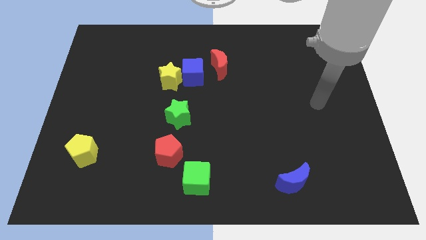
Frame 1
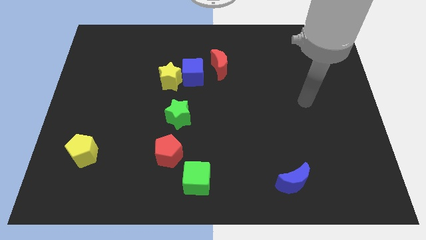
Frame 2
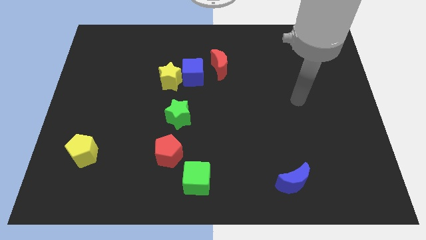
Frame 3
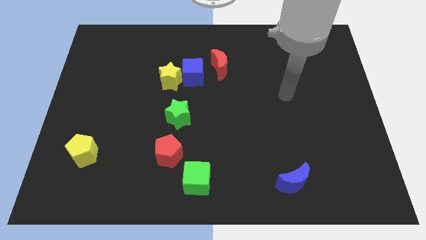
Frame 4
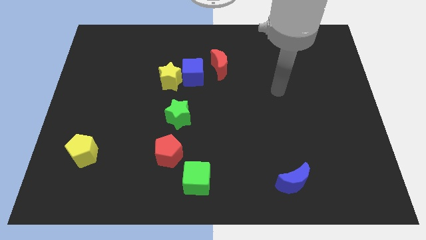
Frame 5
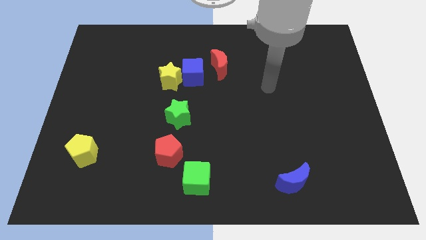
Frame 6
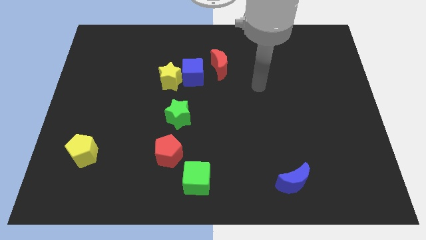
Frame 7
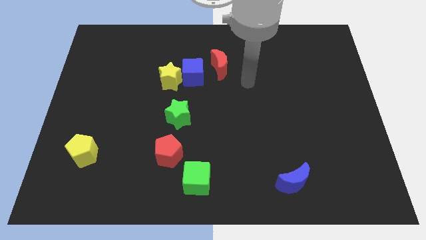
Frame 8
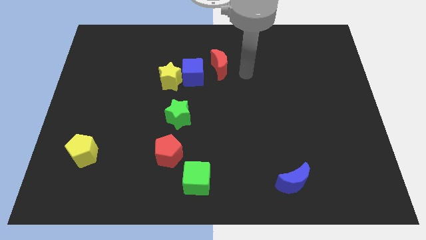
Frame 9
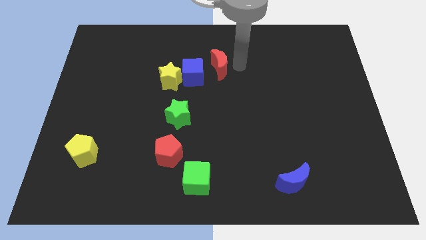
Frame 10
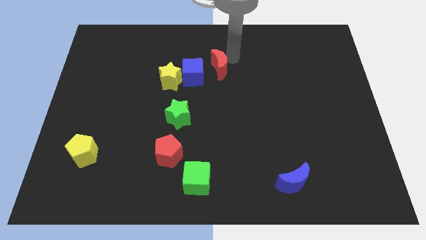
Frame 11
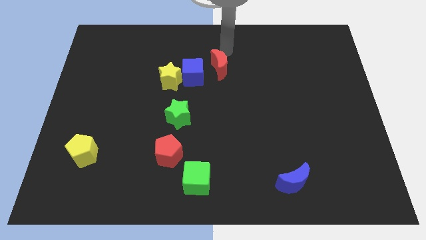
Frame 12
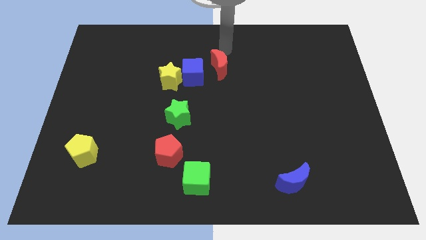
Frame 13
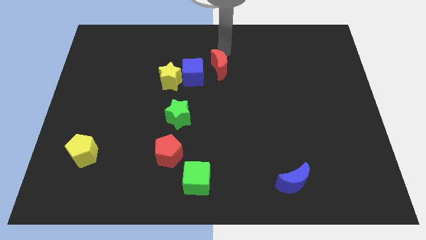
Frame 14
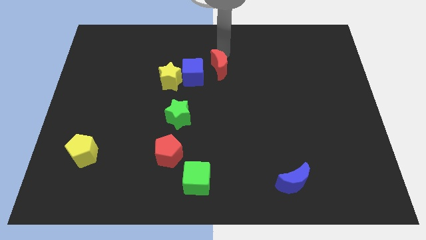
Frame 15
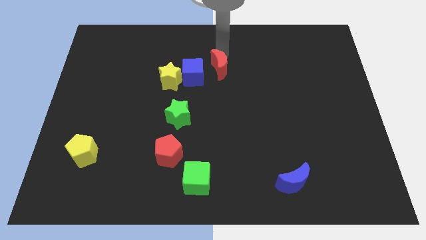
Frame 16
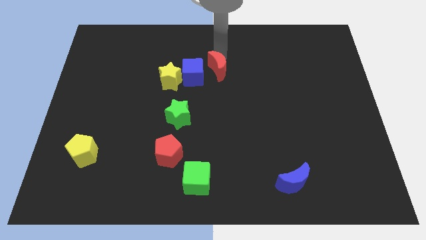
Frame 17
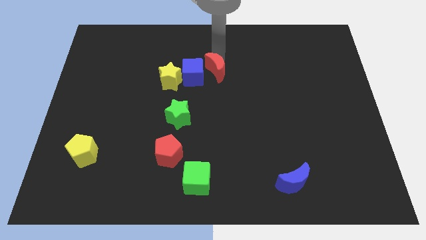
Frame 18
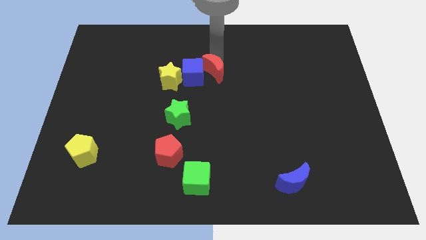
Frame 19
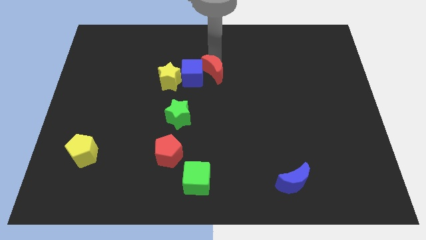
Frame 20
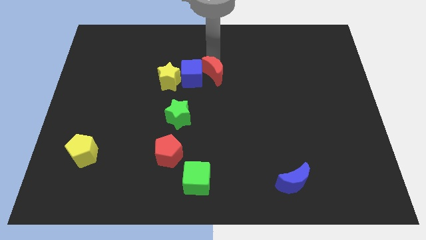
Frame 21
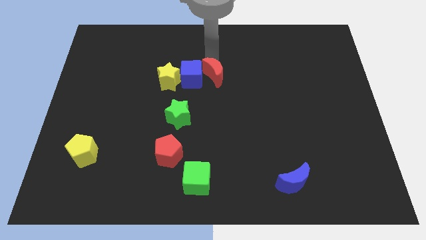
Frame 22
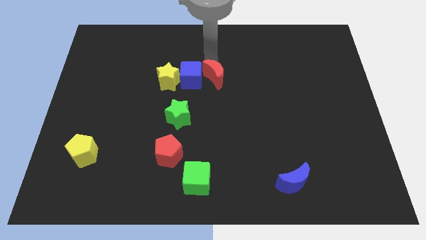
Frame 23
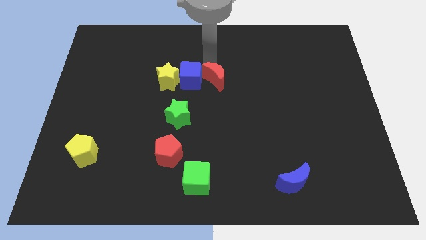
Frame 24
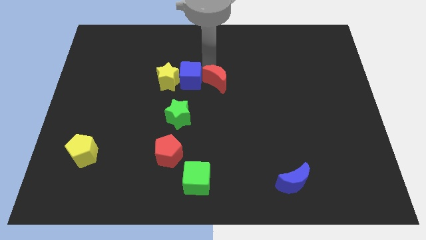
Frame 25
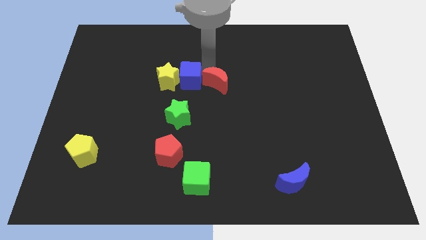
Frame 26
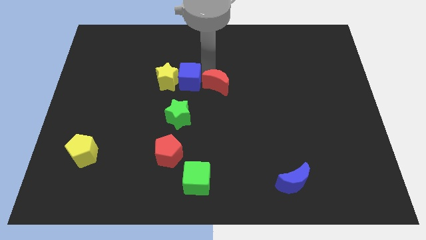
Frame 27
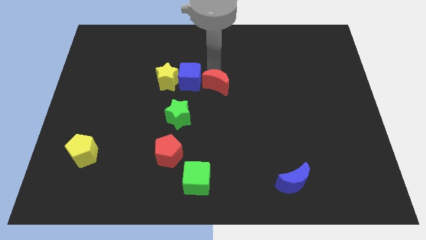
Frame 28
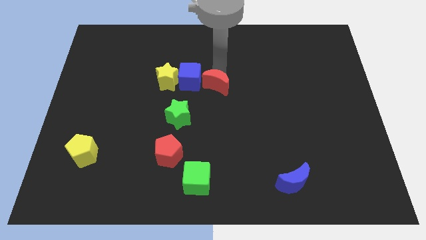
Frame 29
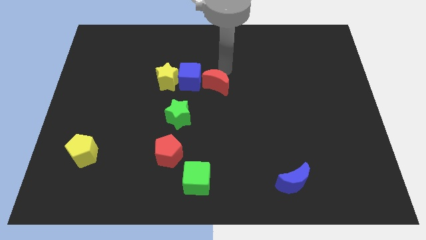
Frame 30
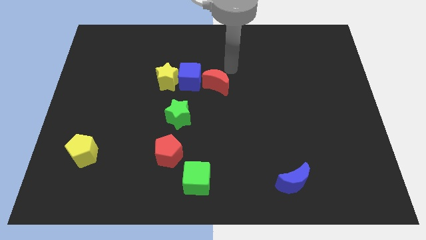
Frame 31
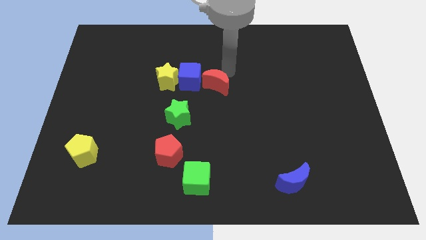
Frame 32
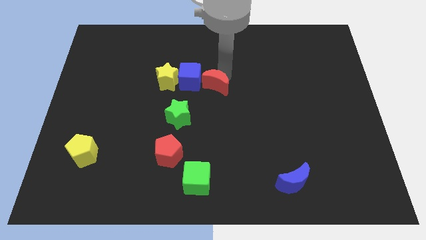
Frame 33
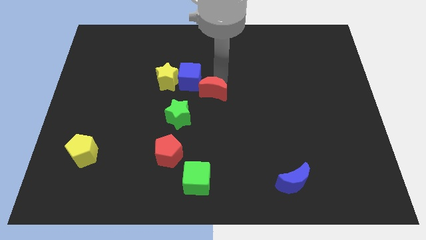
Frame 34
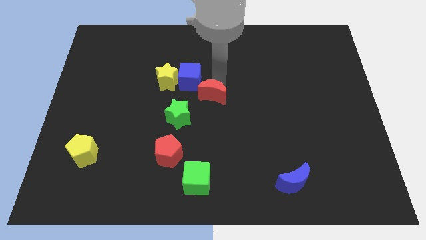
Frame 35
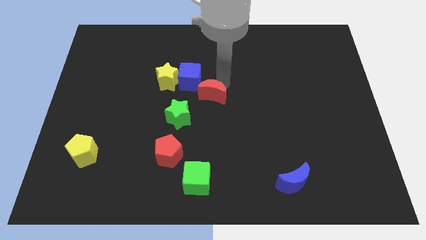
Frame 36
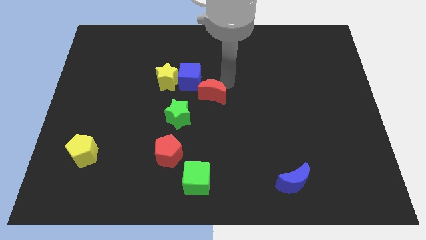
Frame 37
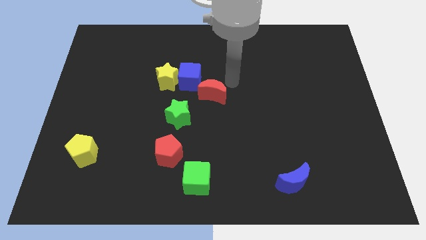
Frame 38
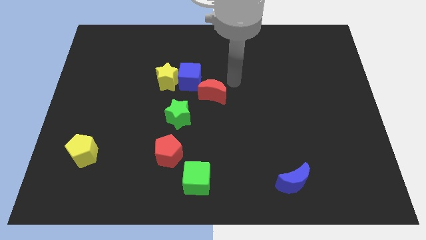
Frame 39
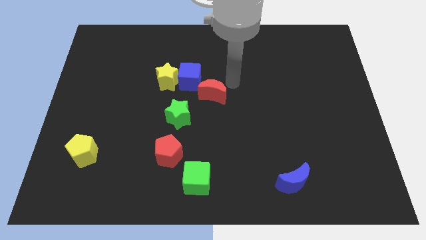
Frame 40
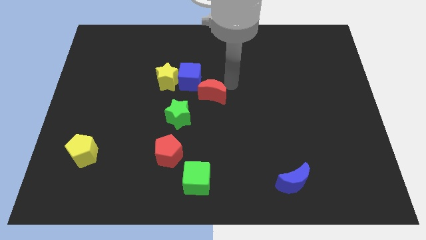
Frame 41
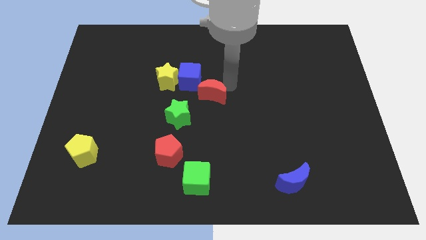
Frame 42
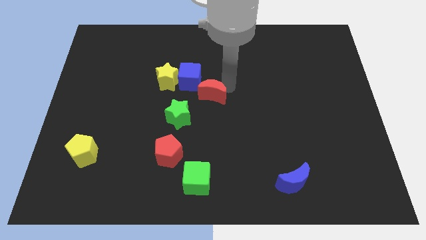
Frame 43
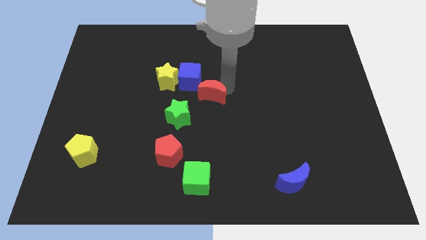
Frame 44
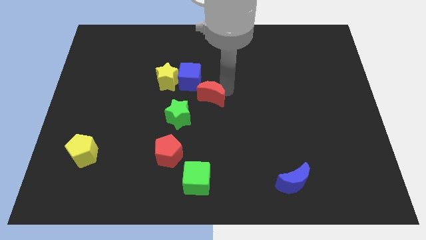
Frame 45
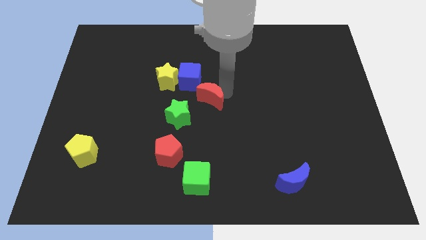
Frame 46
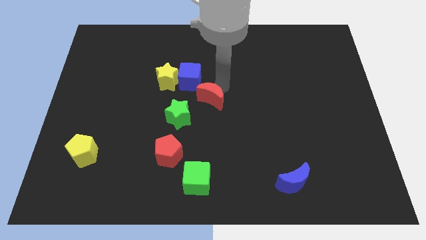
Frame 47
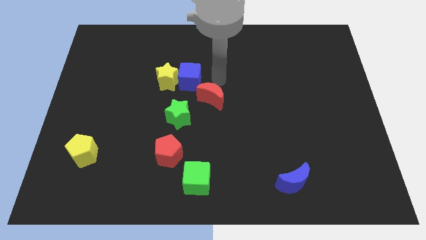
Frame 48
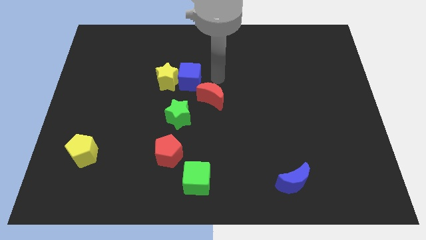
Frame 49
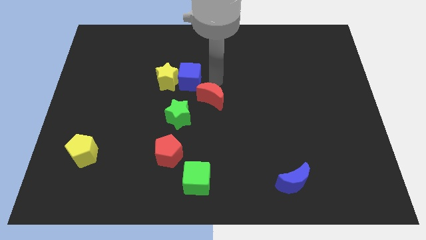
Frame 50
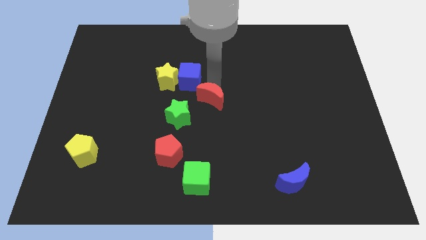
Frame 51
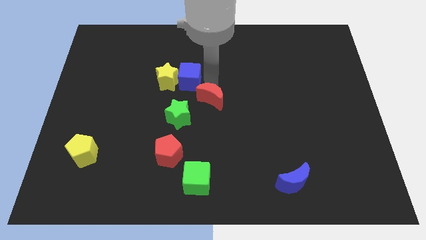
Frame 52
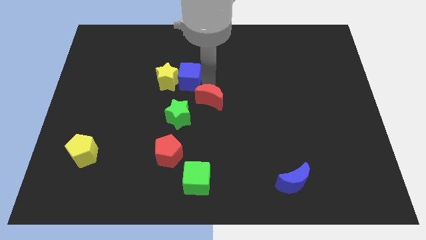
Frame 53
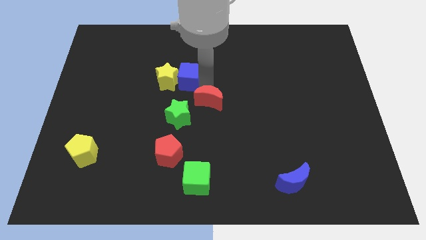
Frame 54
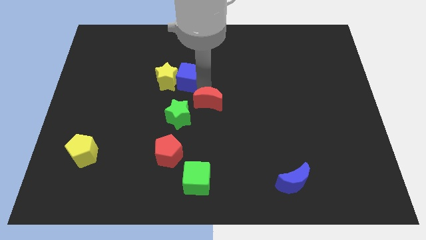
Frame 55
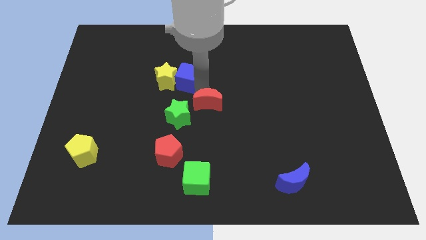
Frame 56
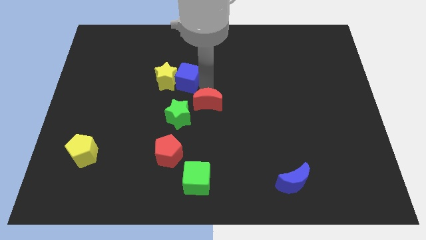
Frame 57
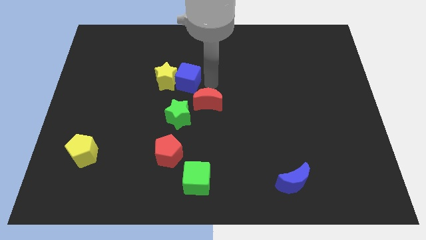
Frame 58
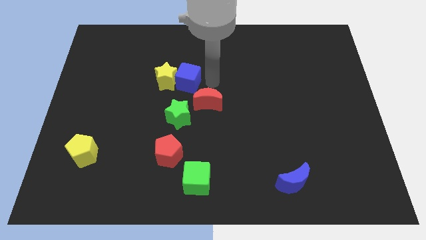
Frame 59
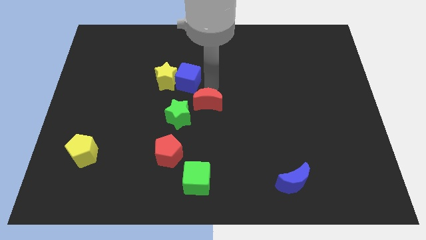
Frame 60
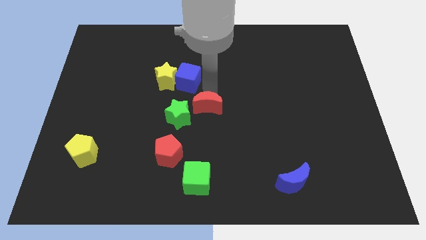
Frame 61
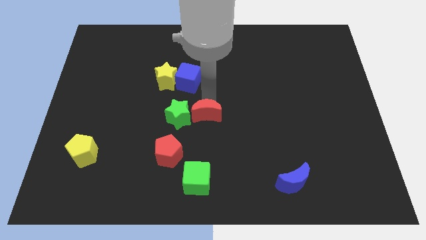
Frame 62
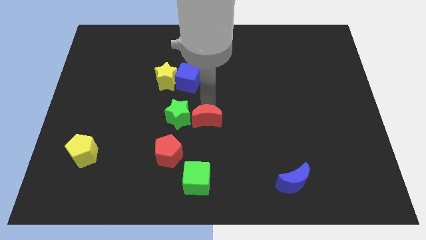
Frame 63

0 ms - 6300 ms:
push the red moon to the bottom right of the green star
